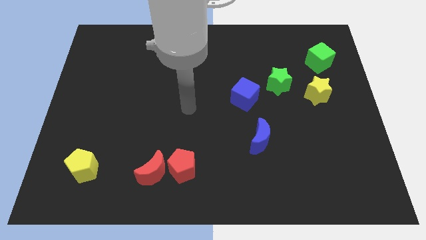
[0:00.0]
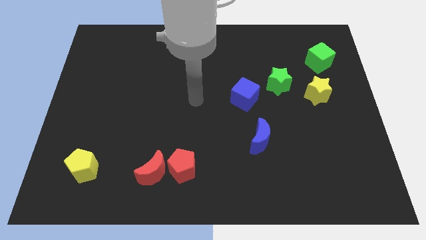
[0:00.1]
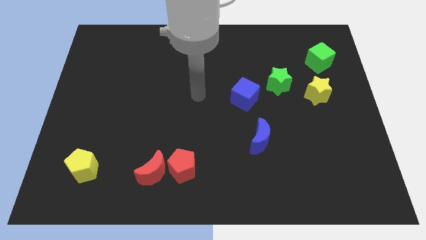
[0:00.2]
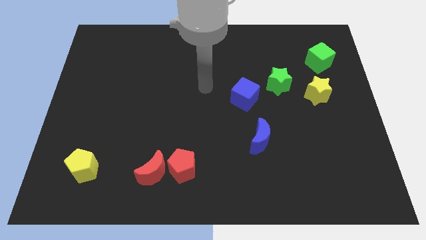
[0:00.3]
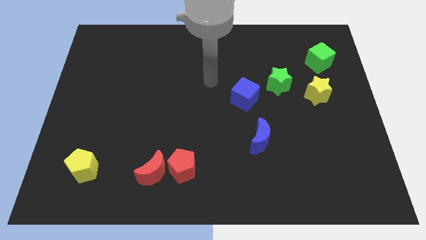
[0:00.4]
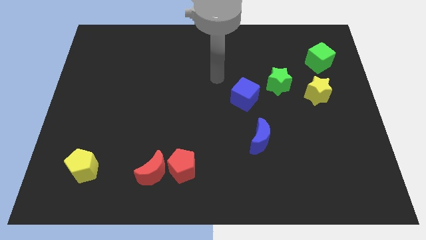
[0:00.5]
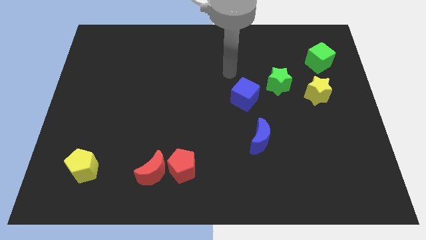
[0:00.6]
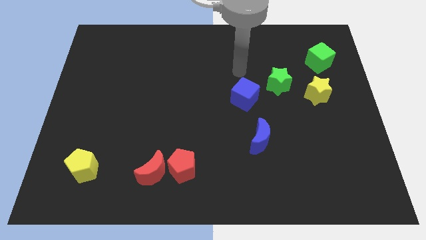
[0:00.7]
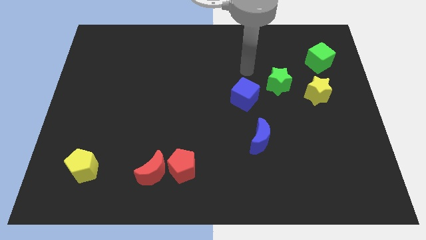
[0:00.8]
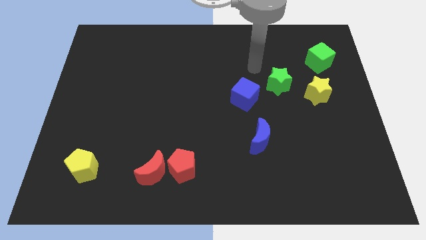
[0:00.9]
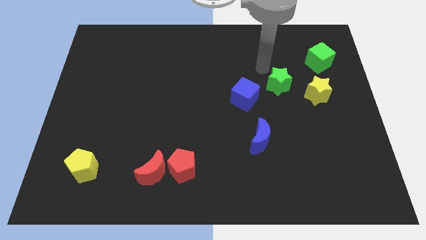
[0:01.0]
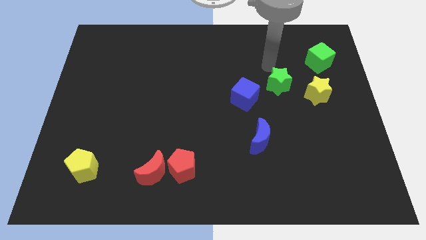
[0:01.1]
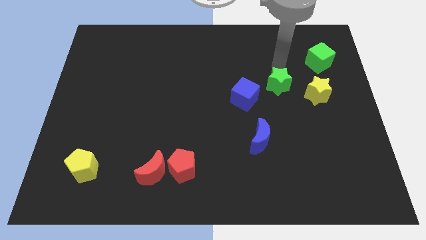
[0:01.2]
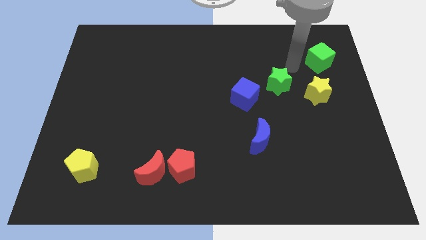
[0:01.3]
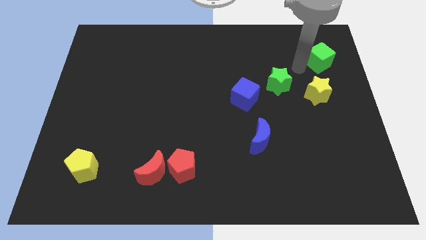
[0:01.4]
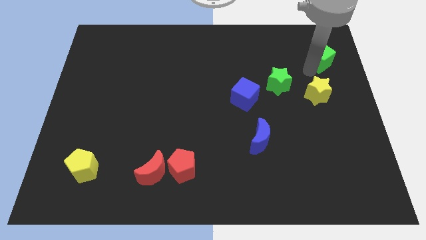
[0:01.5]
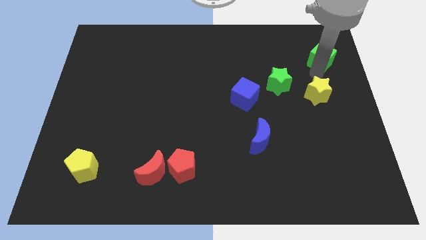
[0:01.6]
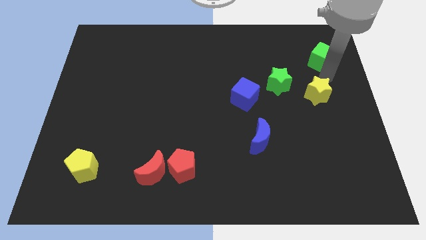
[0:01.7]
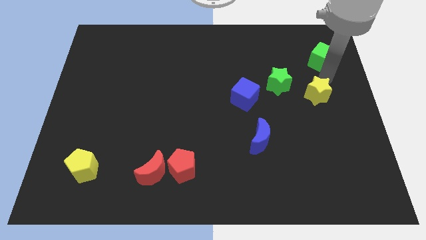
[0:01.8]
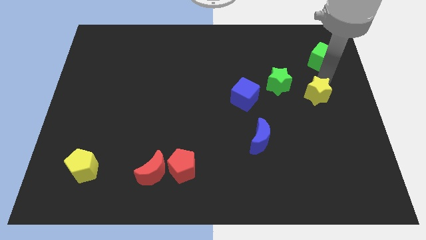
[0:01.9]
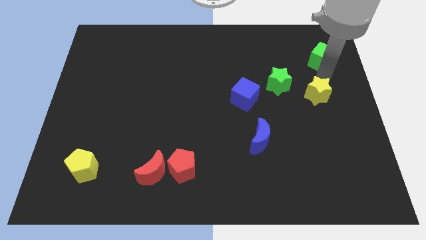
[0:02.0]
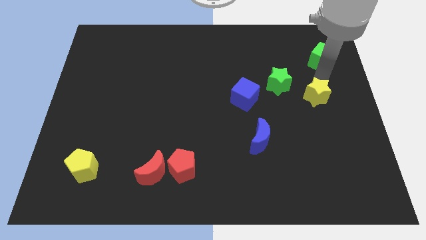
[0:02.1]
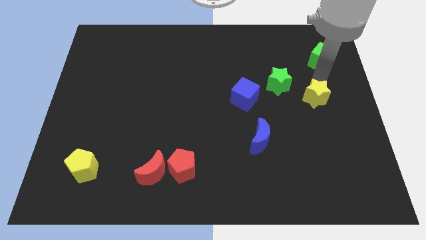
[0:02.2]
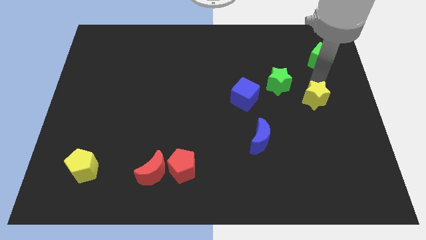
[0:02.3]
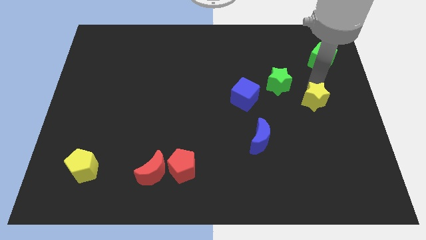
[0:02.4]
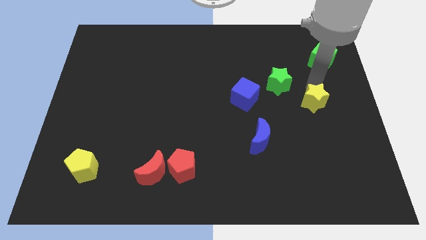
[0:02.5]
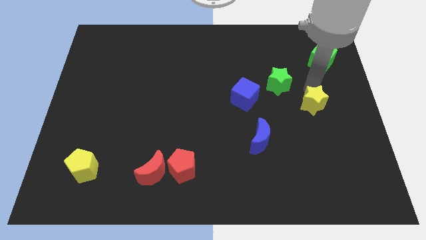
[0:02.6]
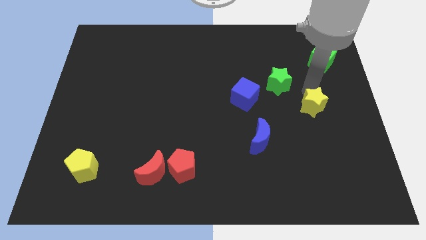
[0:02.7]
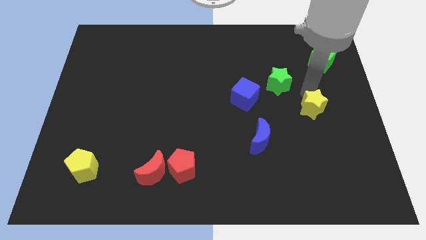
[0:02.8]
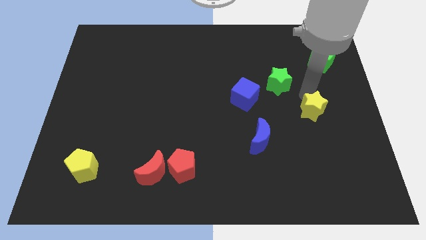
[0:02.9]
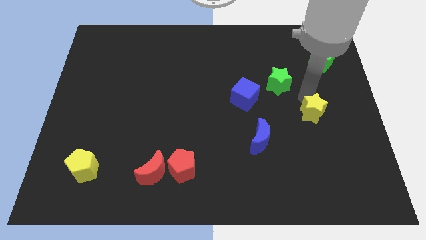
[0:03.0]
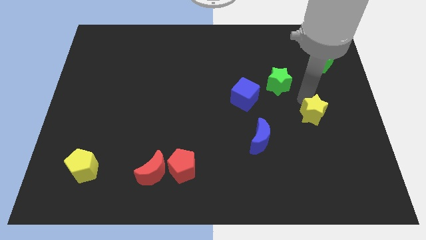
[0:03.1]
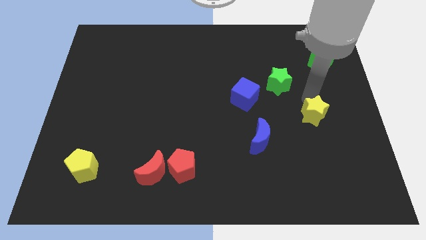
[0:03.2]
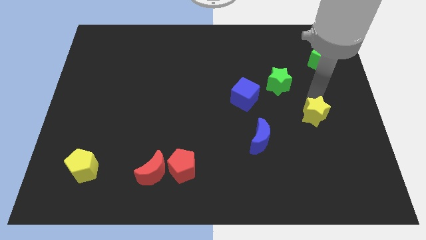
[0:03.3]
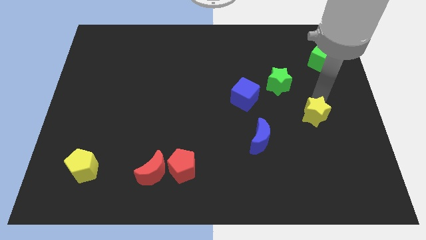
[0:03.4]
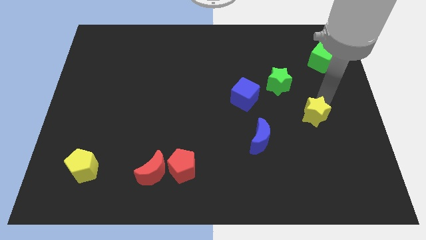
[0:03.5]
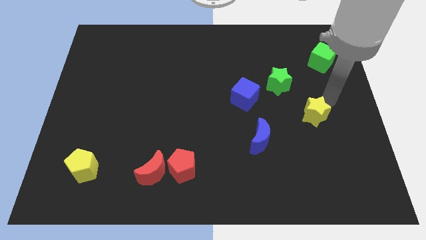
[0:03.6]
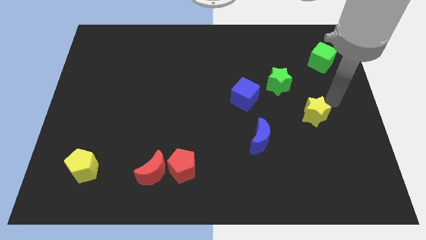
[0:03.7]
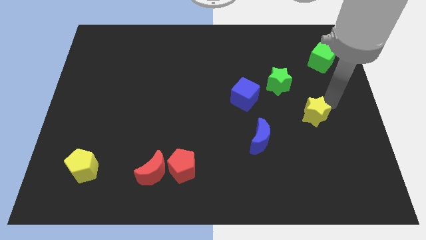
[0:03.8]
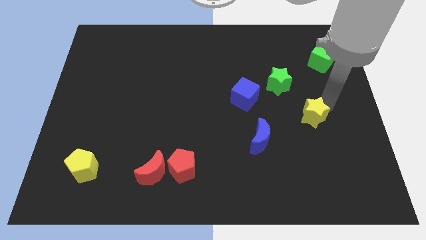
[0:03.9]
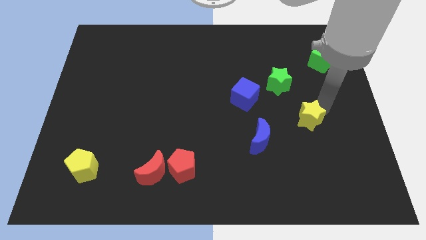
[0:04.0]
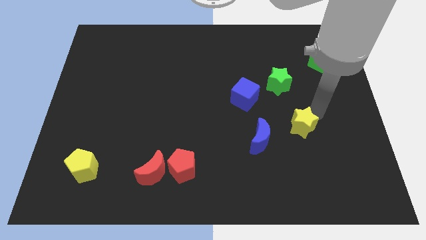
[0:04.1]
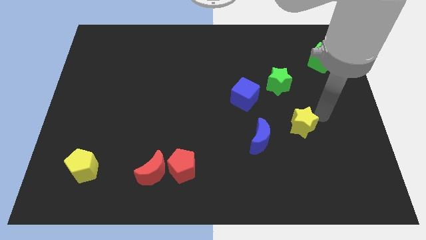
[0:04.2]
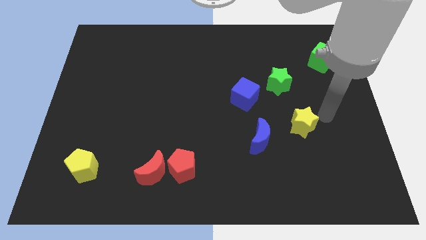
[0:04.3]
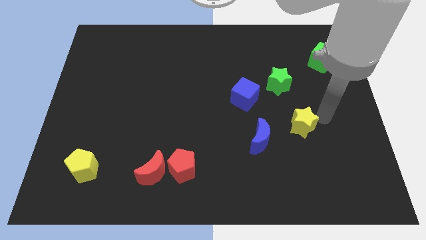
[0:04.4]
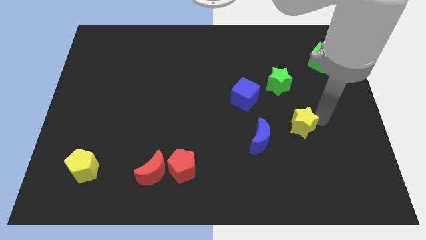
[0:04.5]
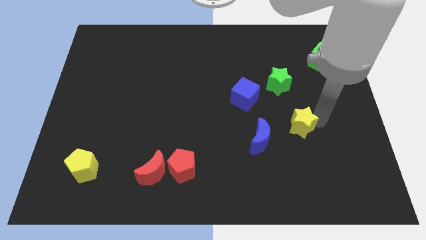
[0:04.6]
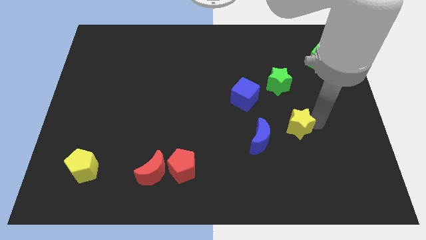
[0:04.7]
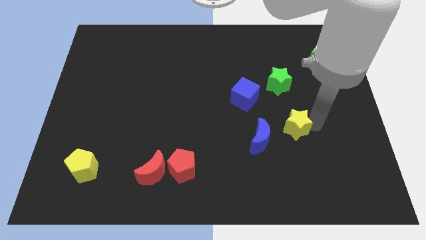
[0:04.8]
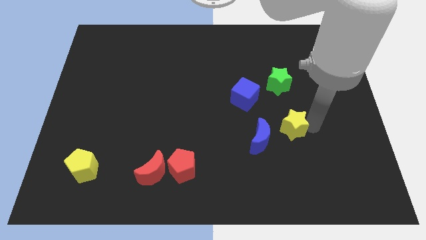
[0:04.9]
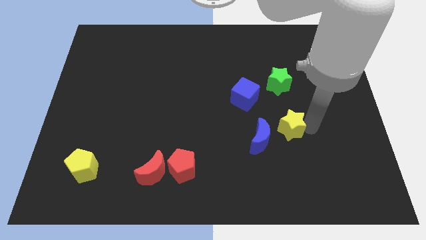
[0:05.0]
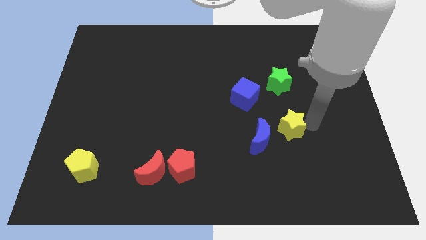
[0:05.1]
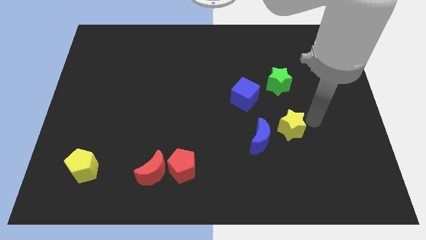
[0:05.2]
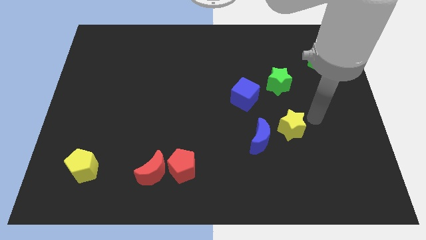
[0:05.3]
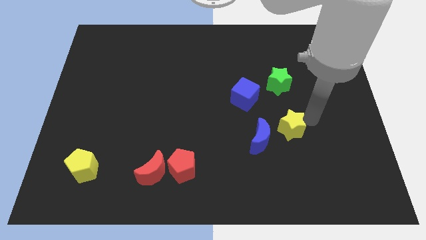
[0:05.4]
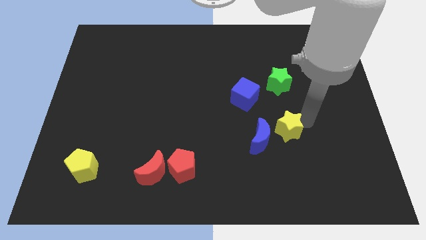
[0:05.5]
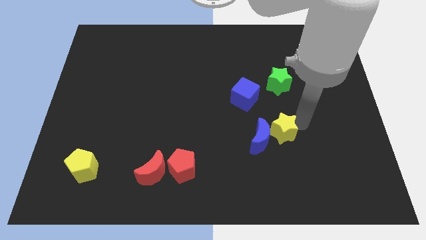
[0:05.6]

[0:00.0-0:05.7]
move the yellow star to the blue moon

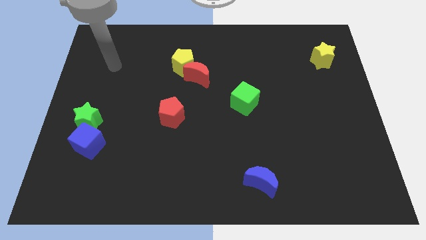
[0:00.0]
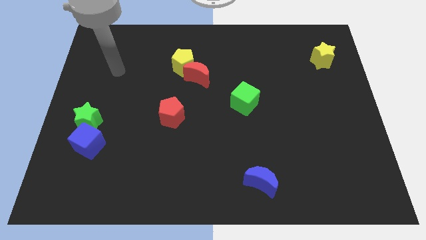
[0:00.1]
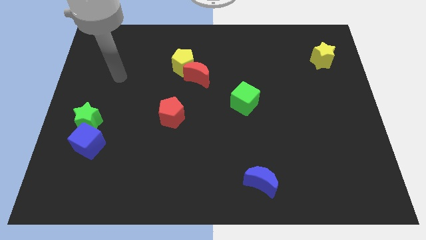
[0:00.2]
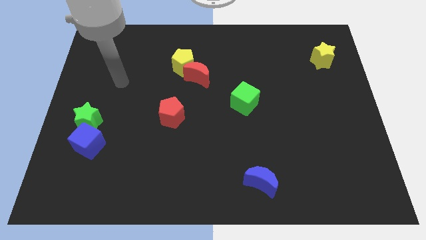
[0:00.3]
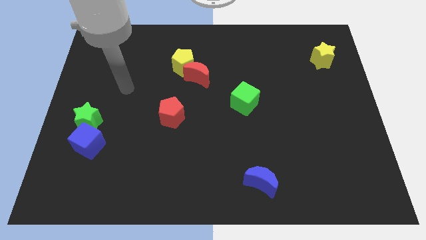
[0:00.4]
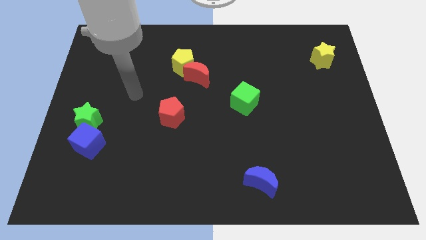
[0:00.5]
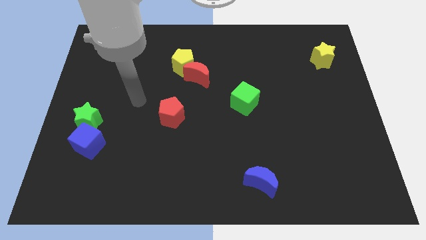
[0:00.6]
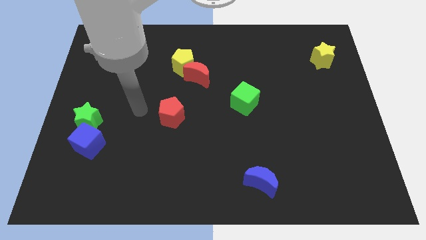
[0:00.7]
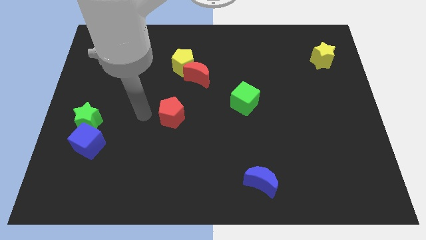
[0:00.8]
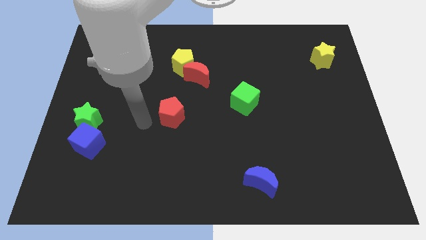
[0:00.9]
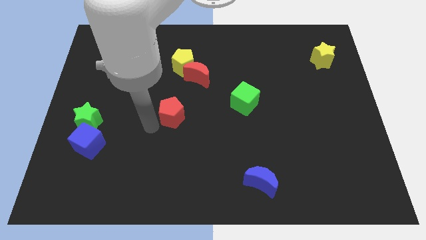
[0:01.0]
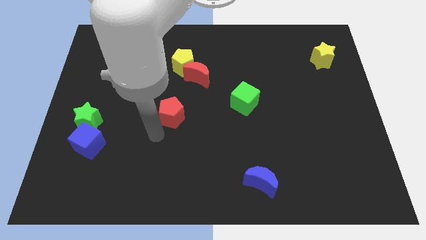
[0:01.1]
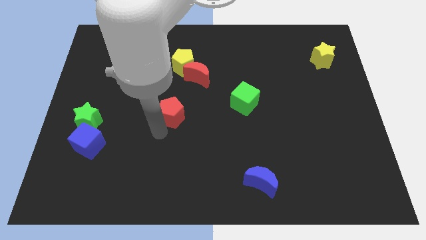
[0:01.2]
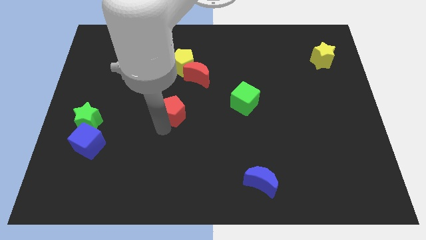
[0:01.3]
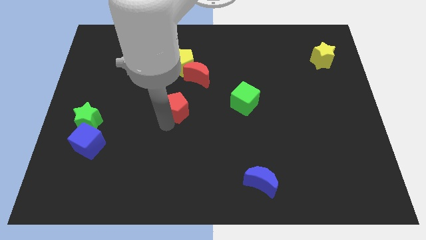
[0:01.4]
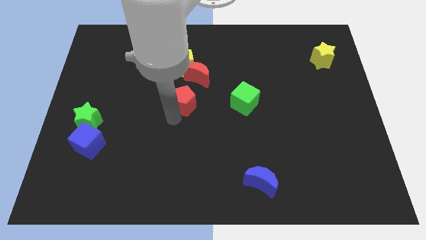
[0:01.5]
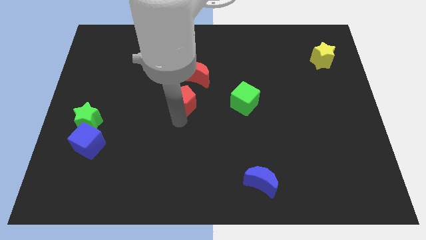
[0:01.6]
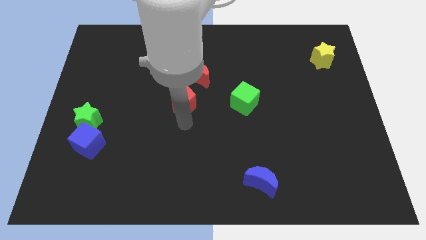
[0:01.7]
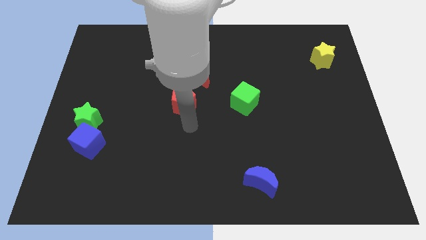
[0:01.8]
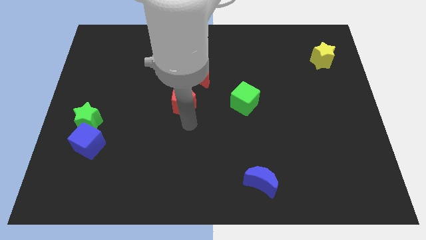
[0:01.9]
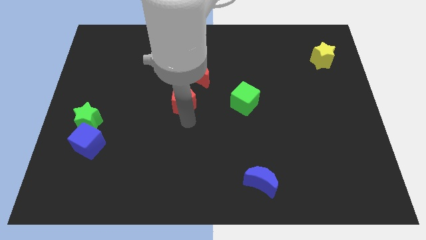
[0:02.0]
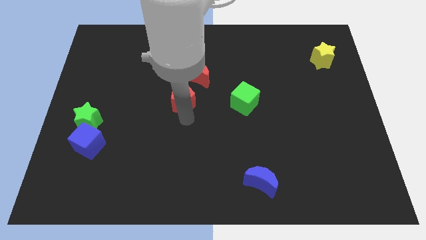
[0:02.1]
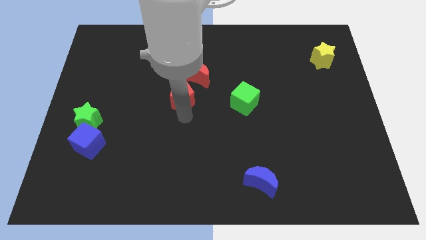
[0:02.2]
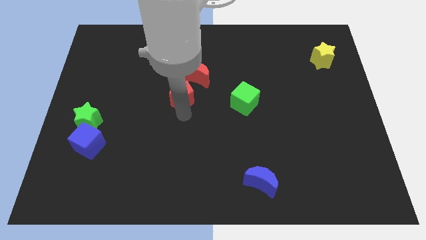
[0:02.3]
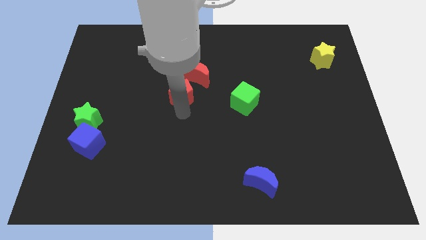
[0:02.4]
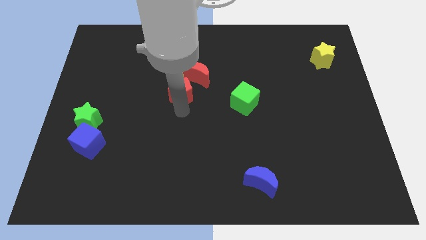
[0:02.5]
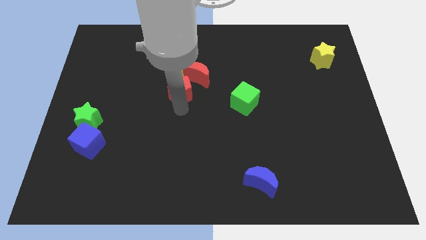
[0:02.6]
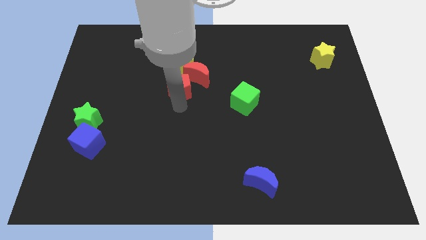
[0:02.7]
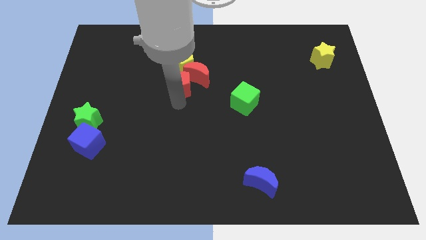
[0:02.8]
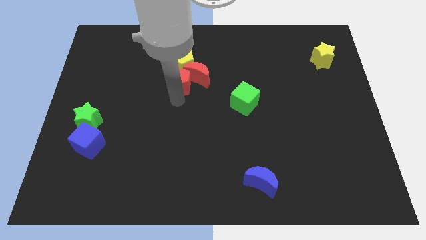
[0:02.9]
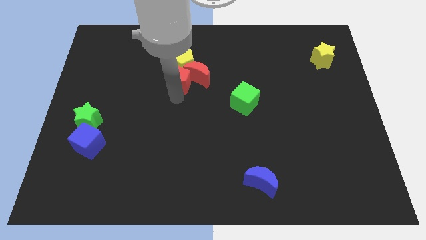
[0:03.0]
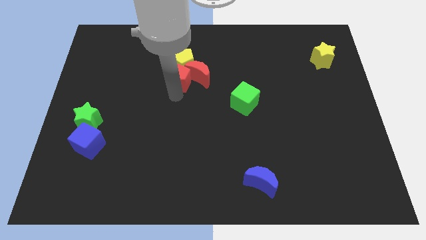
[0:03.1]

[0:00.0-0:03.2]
push the red pentagon next to the yellow pentagon
